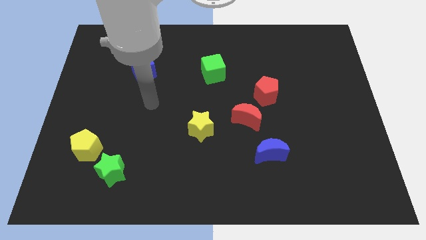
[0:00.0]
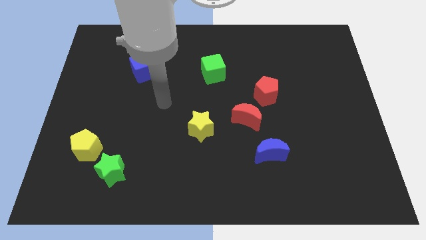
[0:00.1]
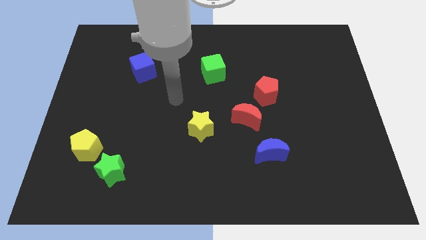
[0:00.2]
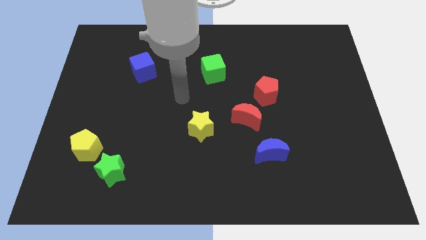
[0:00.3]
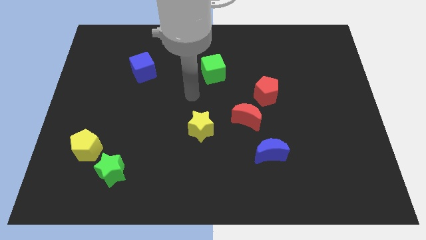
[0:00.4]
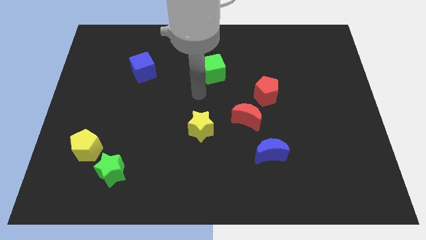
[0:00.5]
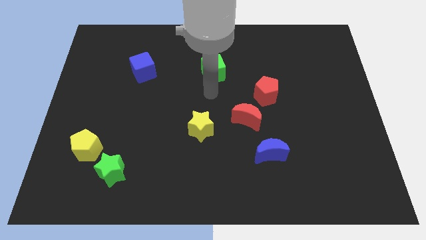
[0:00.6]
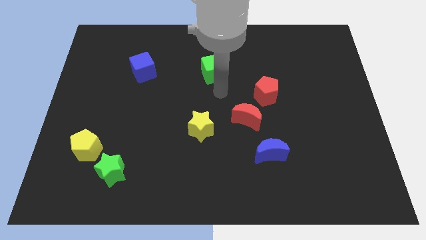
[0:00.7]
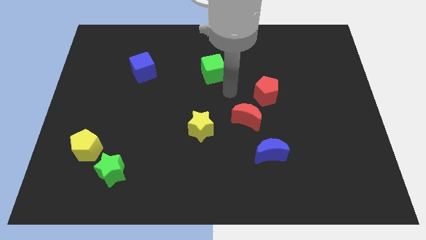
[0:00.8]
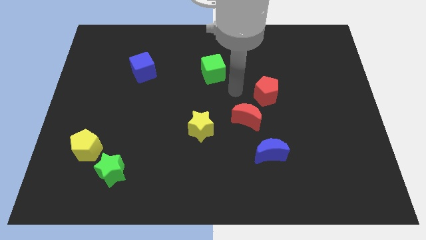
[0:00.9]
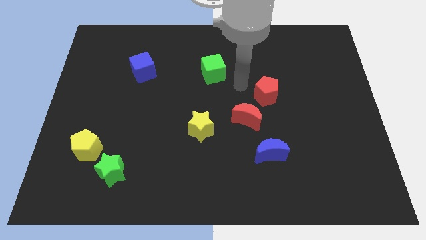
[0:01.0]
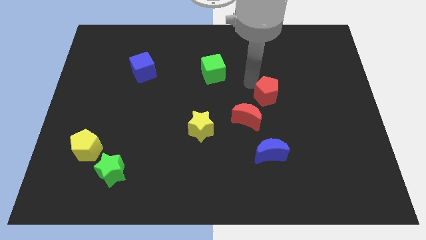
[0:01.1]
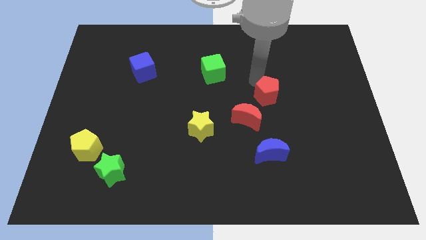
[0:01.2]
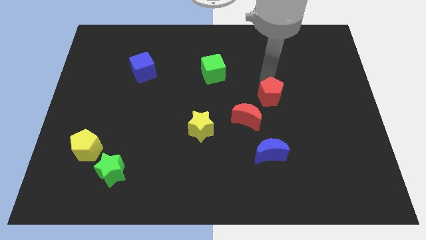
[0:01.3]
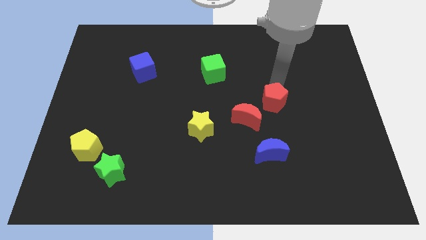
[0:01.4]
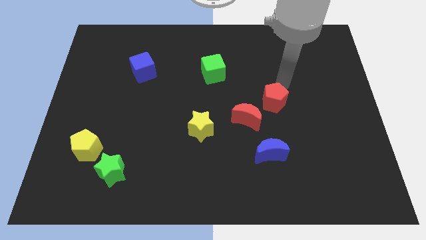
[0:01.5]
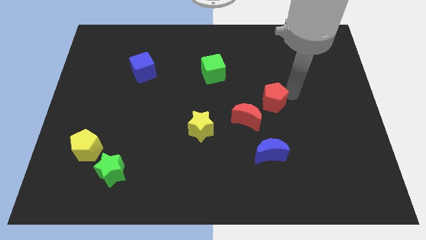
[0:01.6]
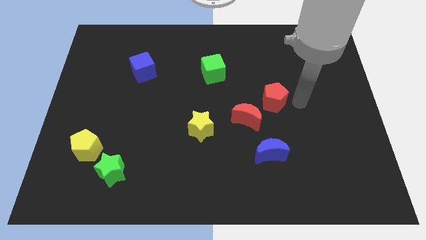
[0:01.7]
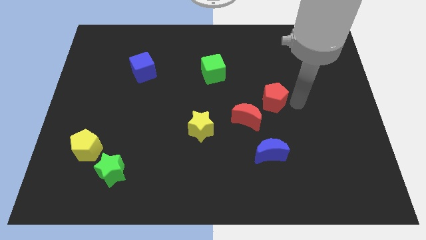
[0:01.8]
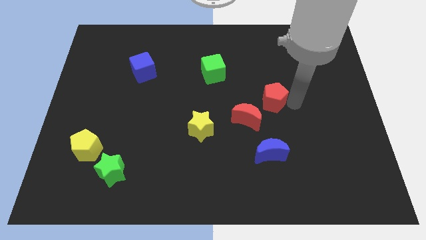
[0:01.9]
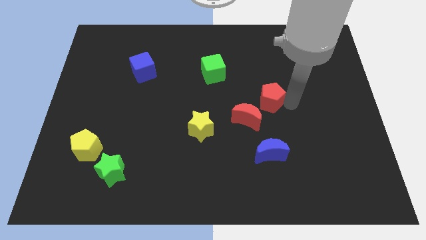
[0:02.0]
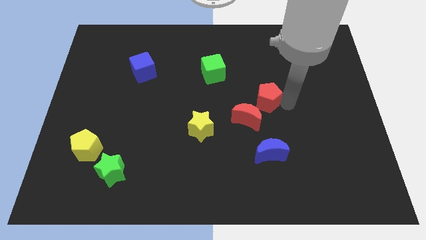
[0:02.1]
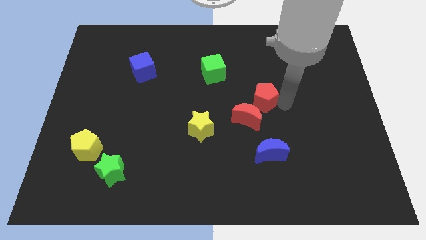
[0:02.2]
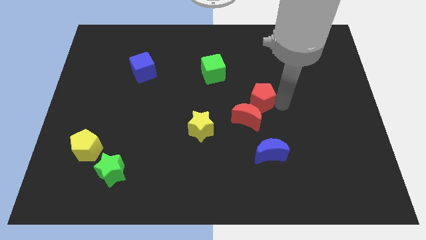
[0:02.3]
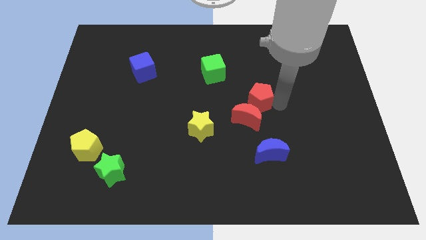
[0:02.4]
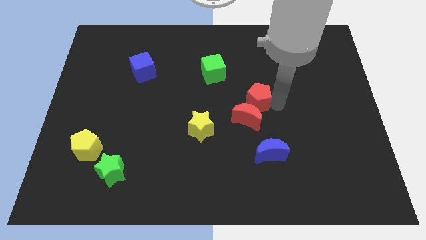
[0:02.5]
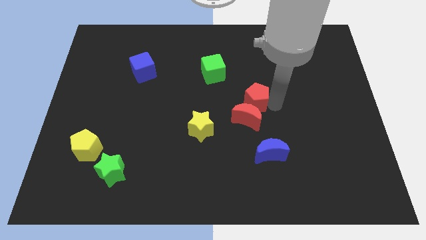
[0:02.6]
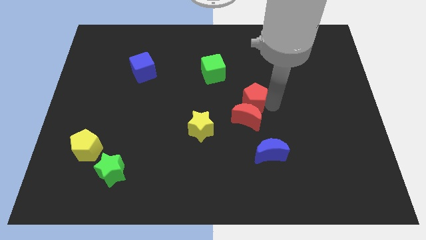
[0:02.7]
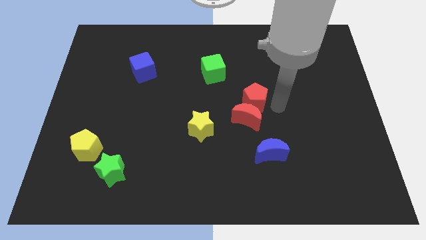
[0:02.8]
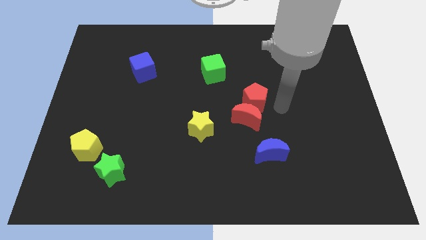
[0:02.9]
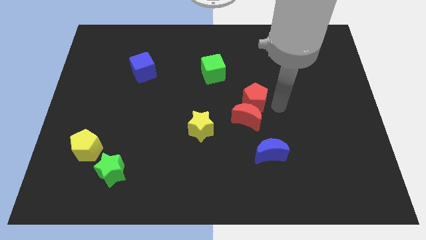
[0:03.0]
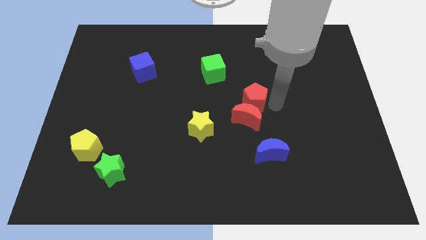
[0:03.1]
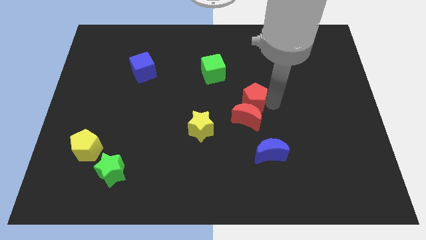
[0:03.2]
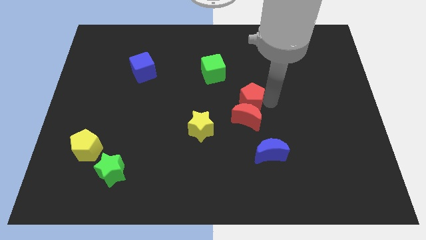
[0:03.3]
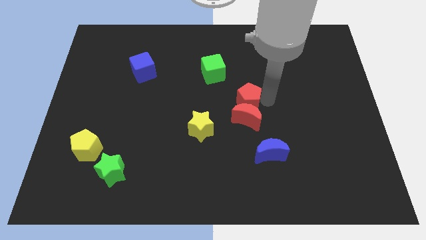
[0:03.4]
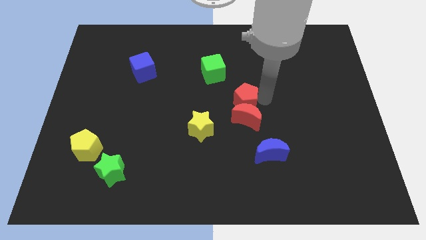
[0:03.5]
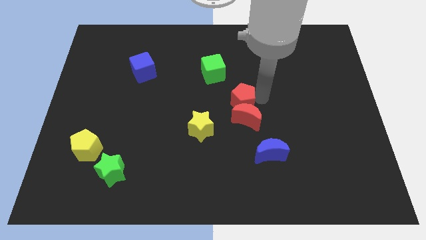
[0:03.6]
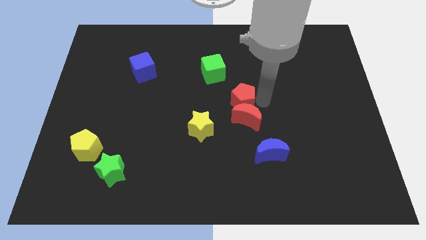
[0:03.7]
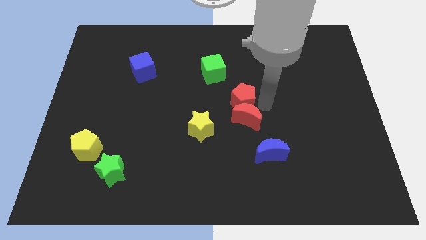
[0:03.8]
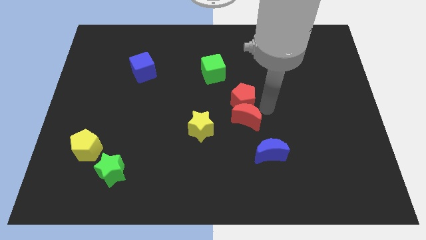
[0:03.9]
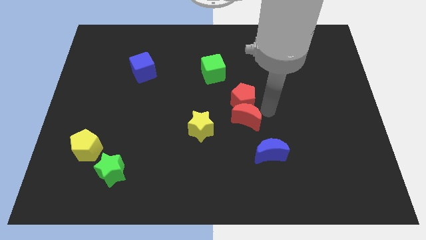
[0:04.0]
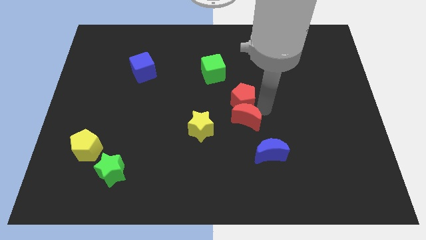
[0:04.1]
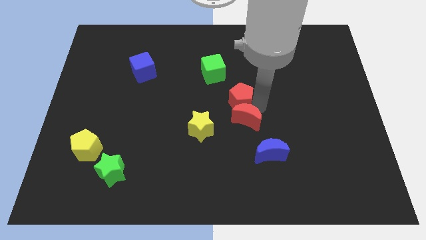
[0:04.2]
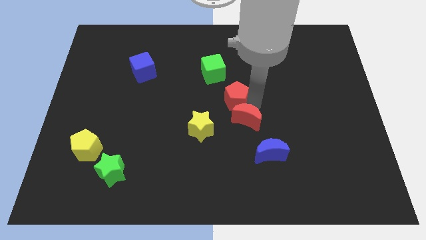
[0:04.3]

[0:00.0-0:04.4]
slide the red pentagon left a little

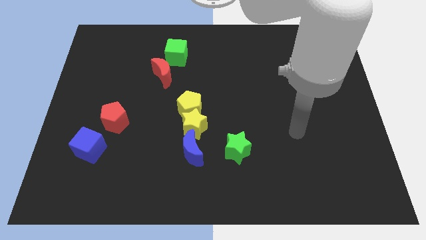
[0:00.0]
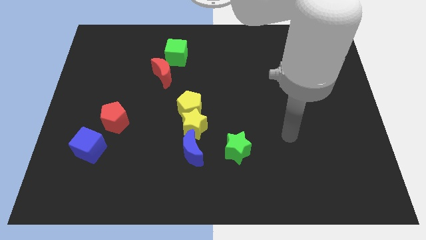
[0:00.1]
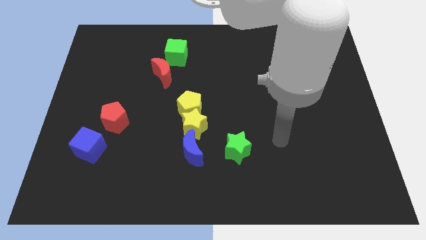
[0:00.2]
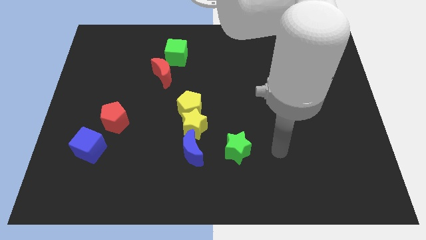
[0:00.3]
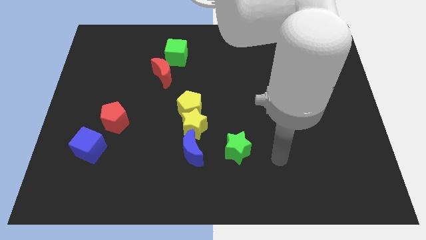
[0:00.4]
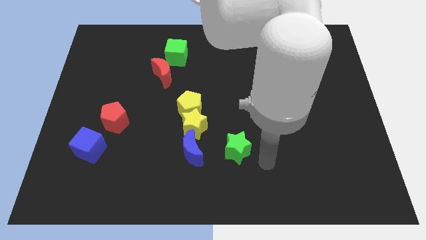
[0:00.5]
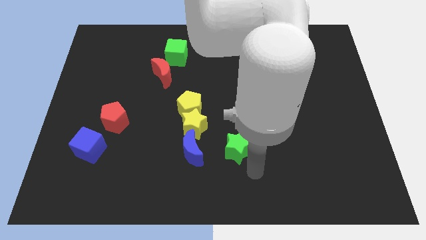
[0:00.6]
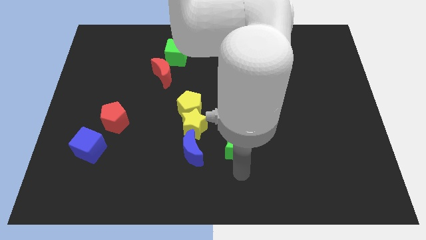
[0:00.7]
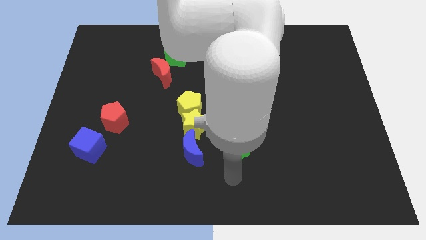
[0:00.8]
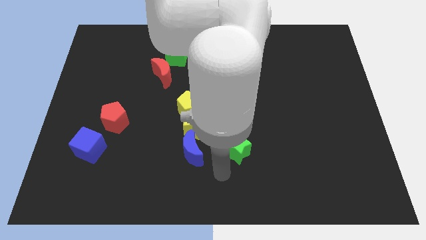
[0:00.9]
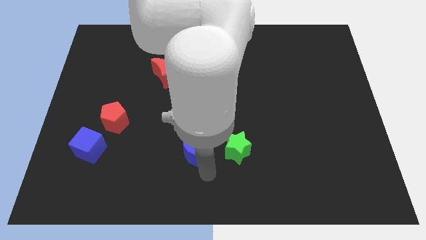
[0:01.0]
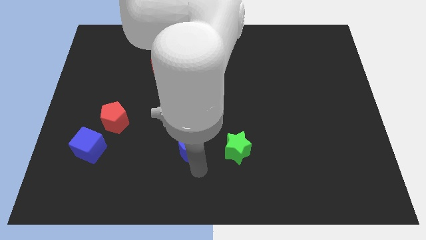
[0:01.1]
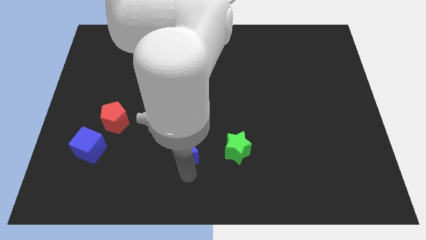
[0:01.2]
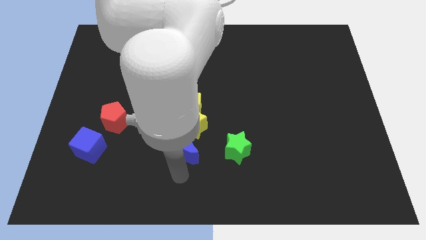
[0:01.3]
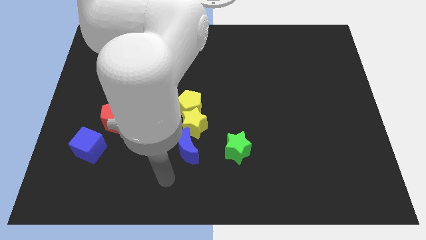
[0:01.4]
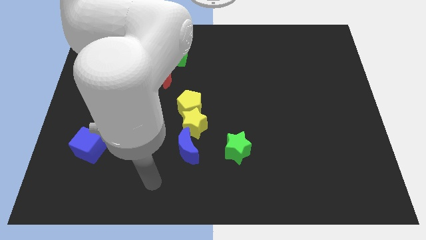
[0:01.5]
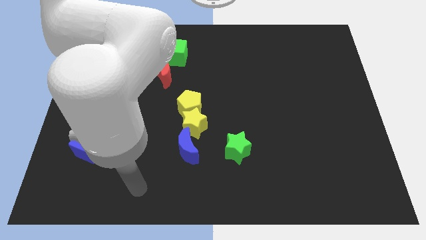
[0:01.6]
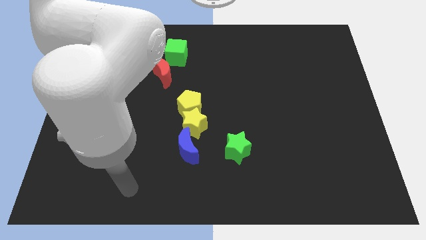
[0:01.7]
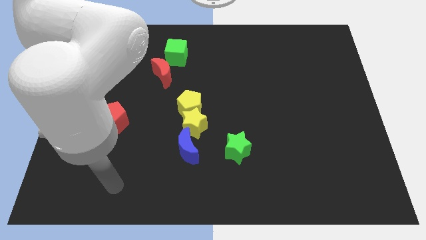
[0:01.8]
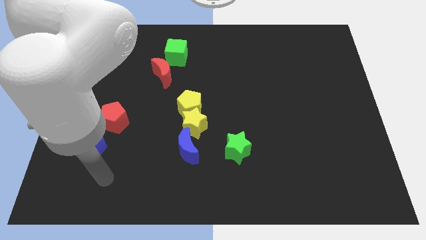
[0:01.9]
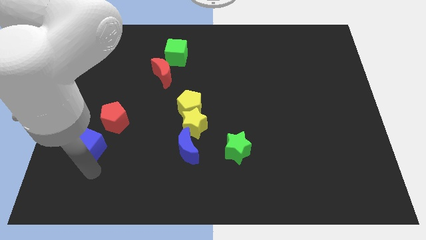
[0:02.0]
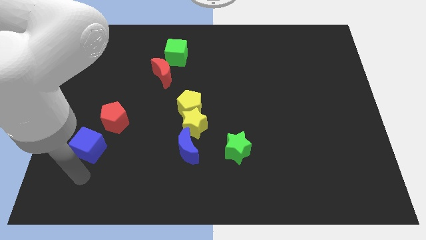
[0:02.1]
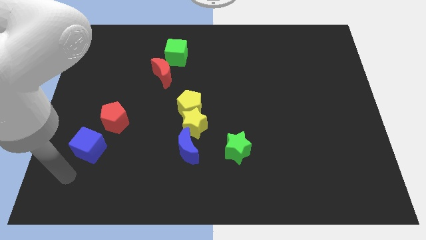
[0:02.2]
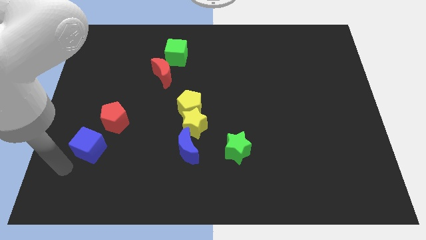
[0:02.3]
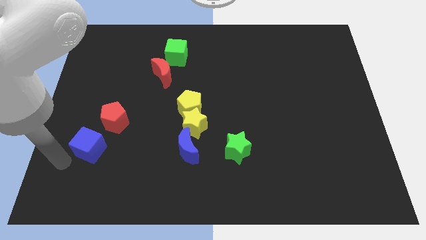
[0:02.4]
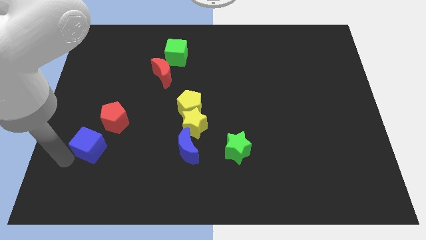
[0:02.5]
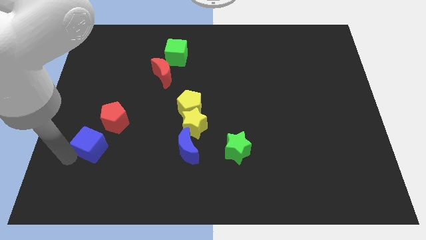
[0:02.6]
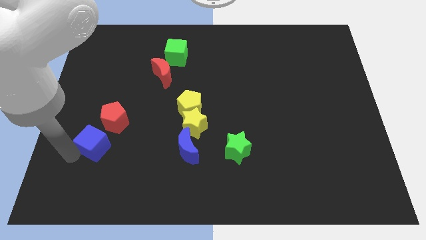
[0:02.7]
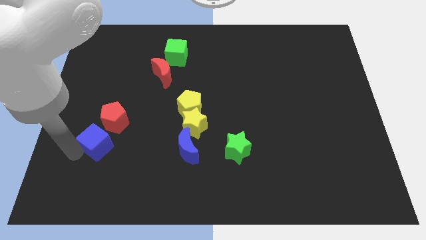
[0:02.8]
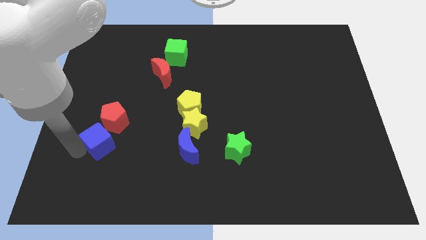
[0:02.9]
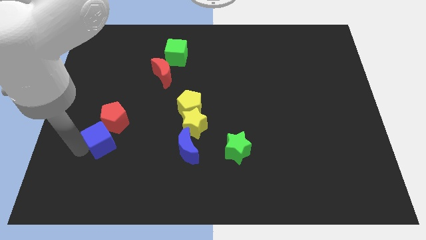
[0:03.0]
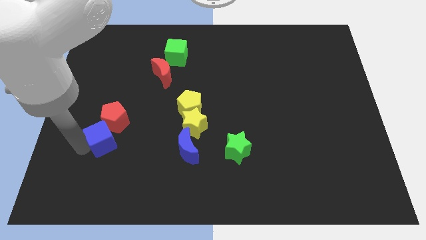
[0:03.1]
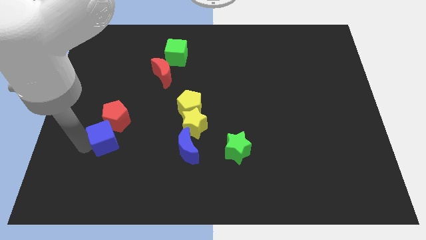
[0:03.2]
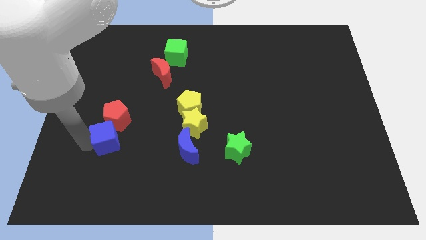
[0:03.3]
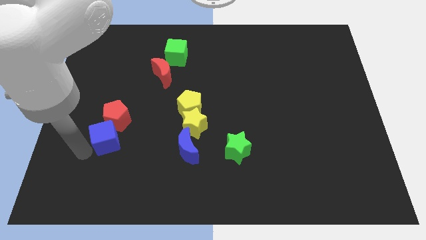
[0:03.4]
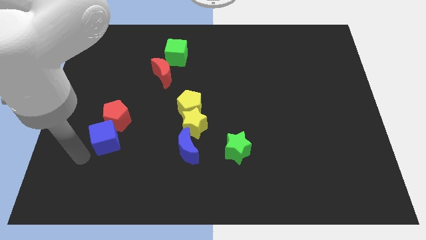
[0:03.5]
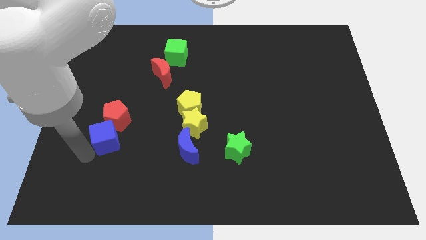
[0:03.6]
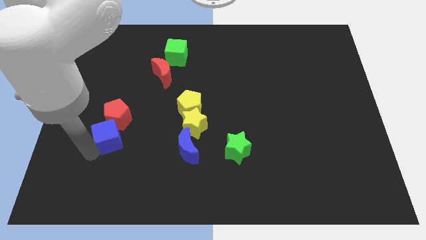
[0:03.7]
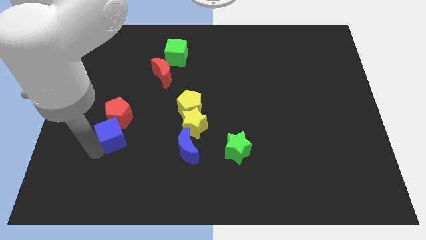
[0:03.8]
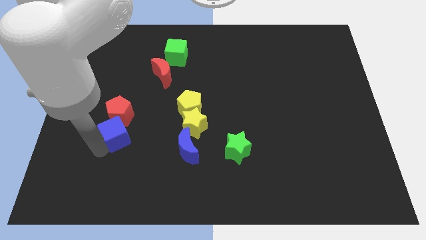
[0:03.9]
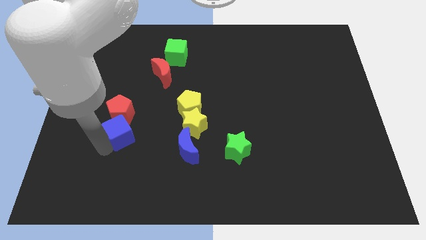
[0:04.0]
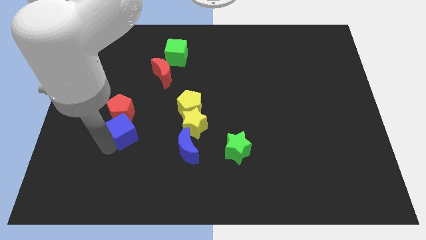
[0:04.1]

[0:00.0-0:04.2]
slightly push the blue cube upwards and to the right

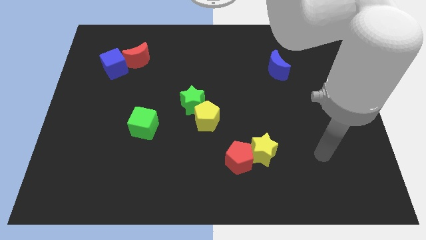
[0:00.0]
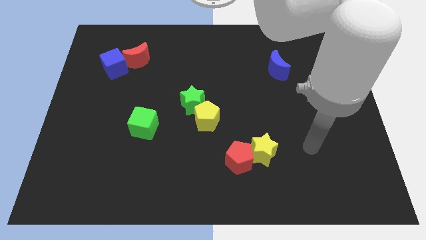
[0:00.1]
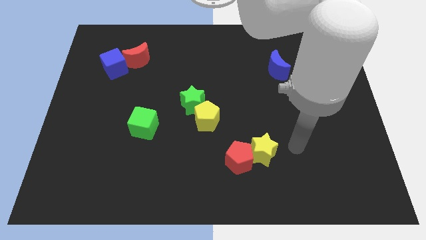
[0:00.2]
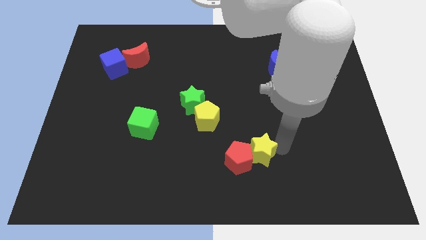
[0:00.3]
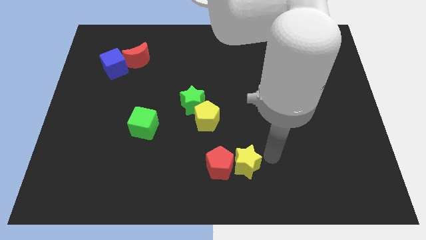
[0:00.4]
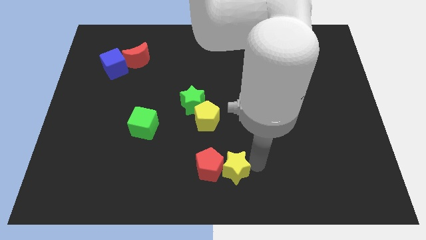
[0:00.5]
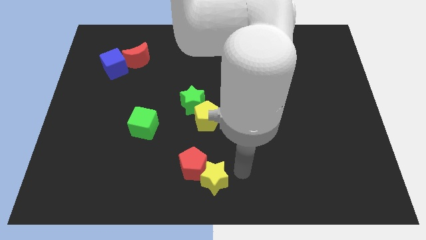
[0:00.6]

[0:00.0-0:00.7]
slightly move the red pentagon to the left
